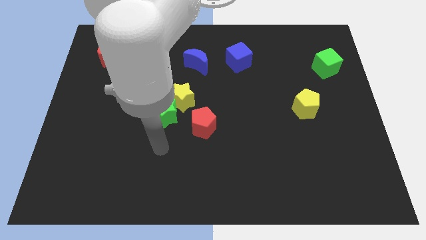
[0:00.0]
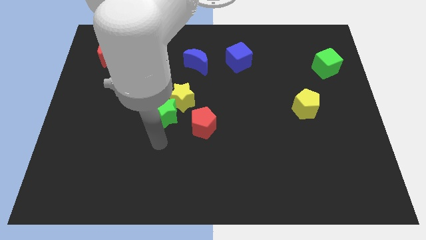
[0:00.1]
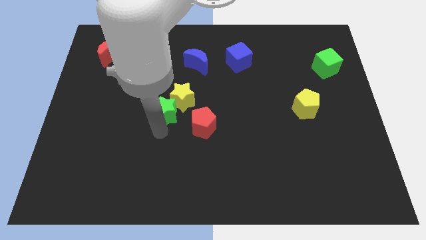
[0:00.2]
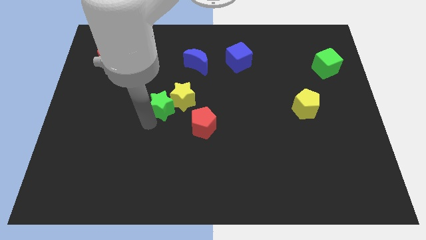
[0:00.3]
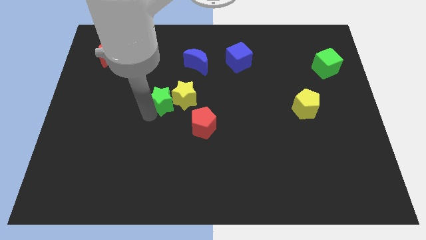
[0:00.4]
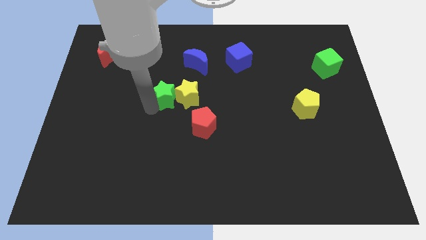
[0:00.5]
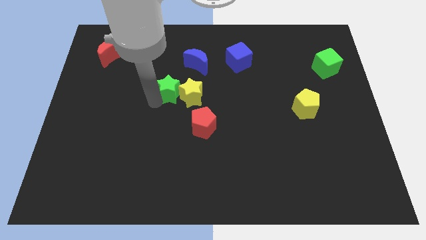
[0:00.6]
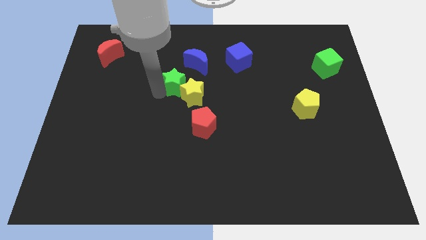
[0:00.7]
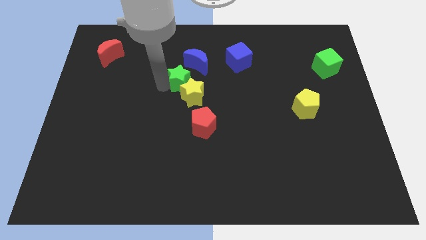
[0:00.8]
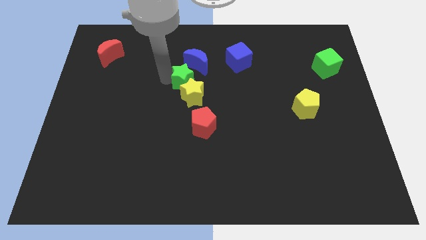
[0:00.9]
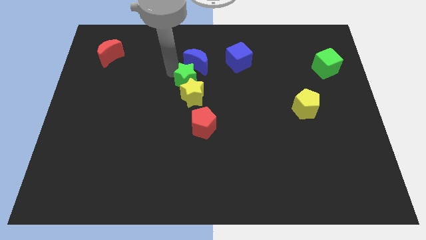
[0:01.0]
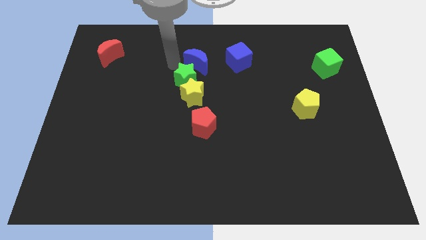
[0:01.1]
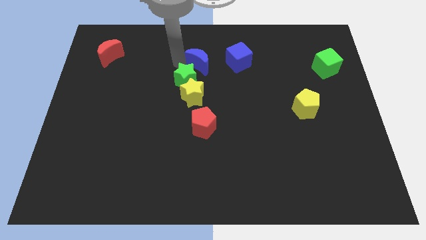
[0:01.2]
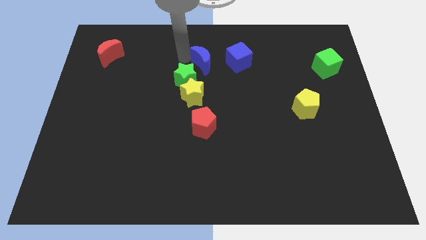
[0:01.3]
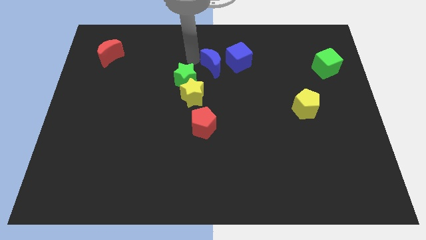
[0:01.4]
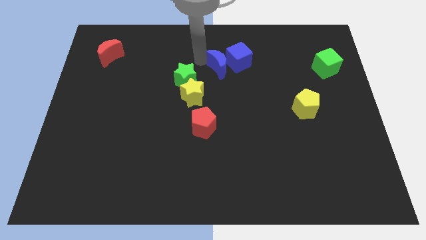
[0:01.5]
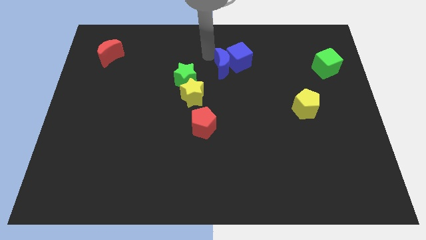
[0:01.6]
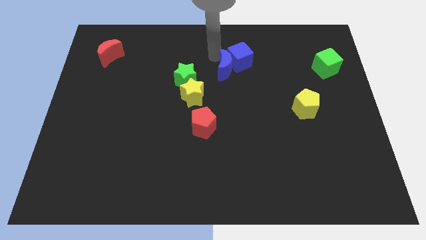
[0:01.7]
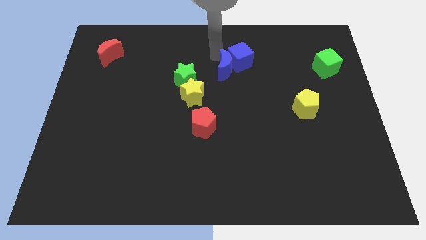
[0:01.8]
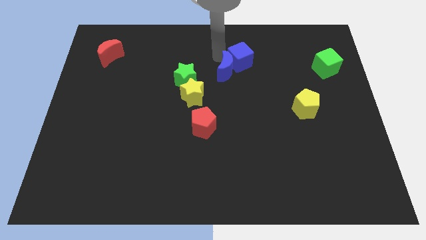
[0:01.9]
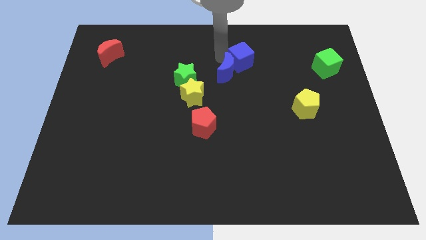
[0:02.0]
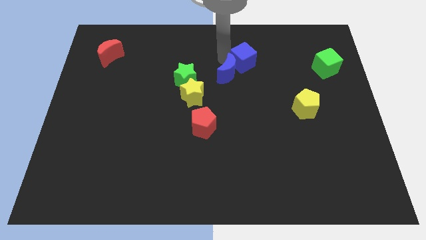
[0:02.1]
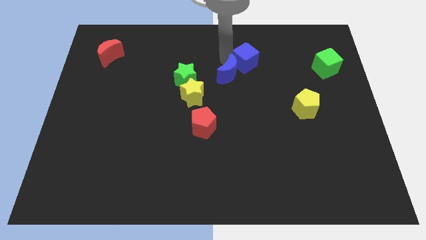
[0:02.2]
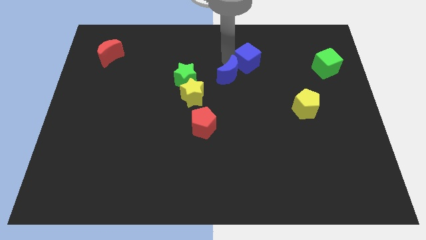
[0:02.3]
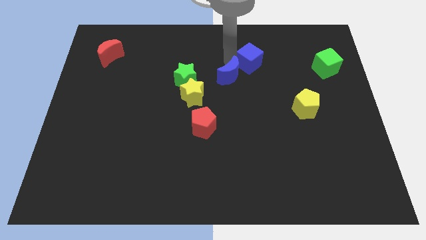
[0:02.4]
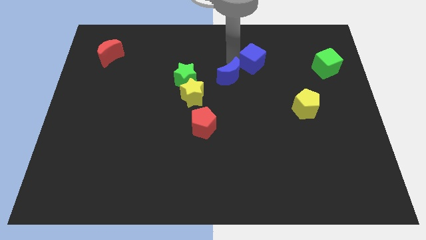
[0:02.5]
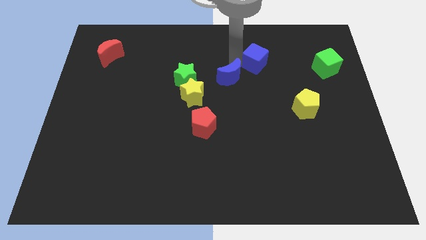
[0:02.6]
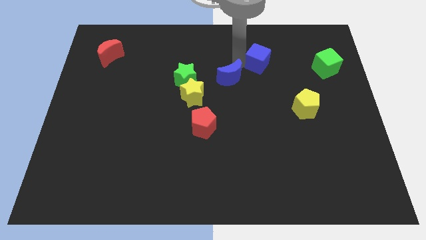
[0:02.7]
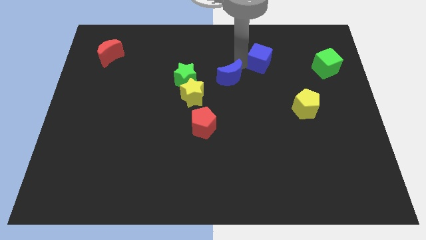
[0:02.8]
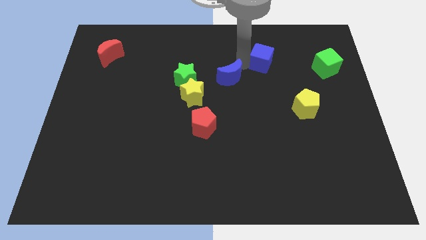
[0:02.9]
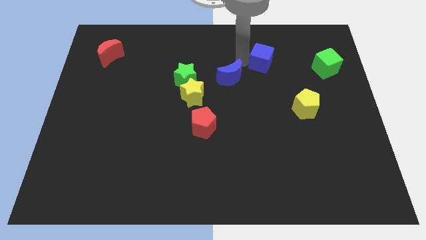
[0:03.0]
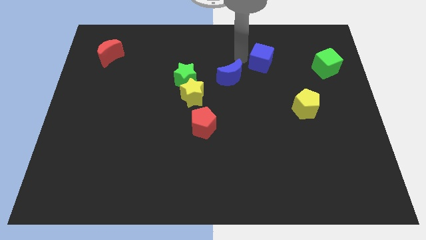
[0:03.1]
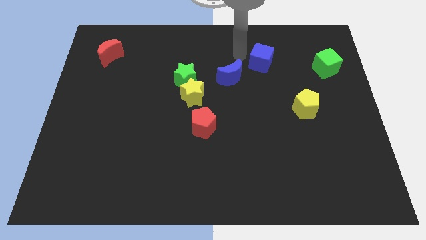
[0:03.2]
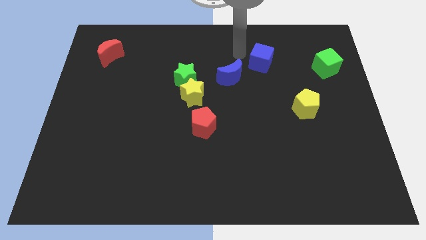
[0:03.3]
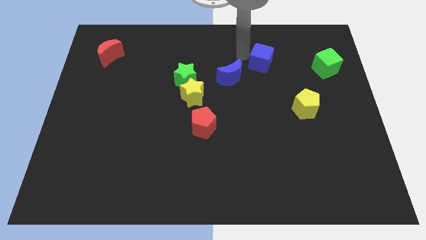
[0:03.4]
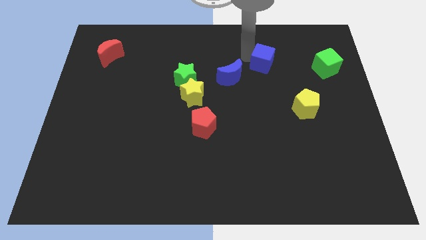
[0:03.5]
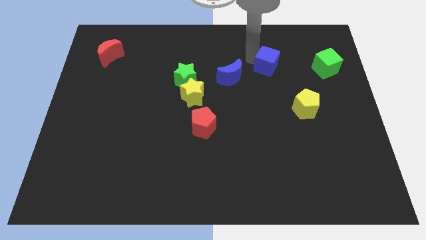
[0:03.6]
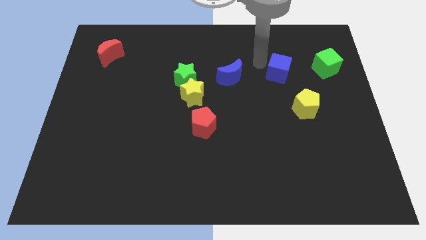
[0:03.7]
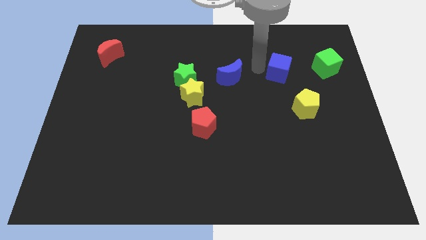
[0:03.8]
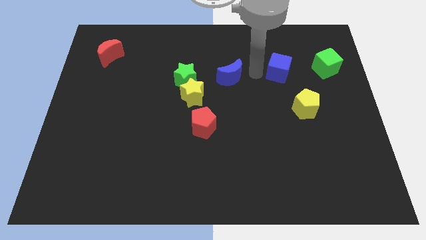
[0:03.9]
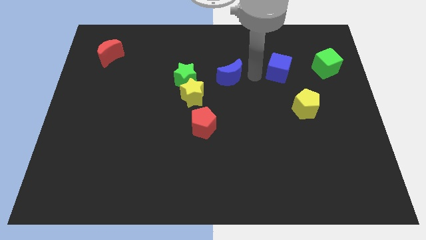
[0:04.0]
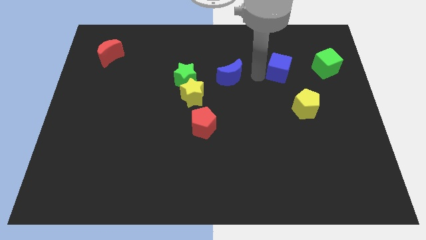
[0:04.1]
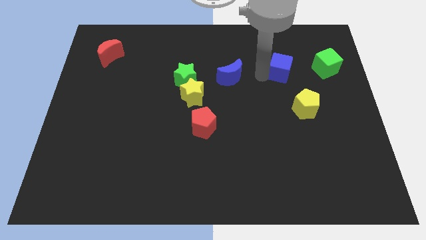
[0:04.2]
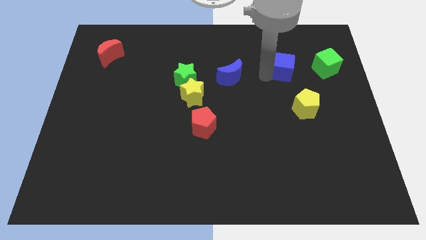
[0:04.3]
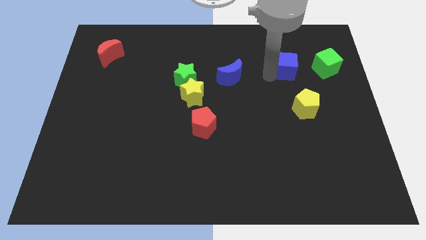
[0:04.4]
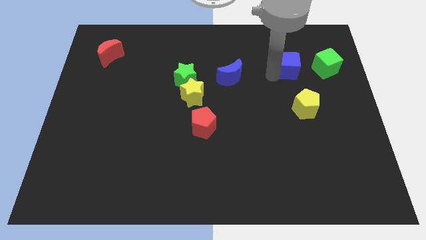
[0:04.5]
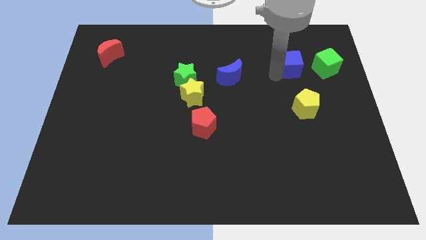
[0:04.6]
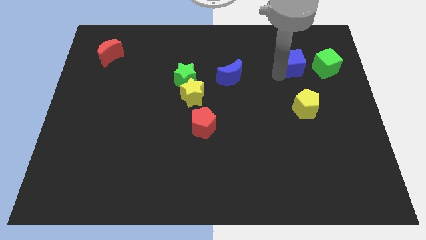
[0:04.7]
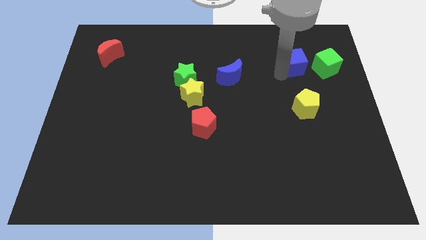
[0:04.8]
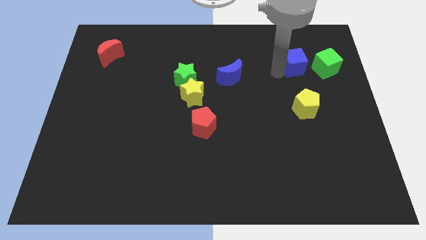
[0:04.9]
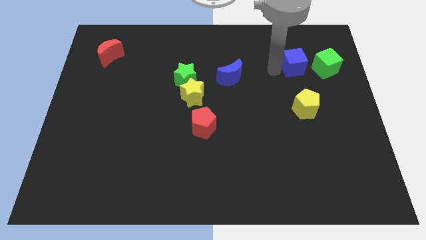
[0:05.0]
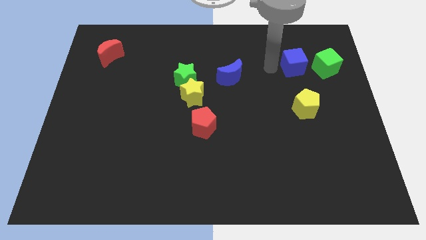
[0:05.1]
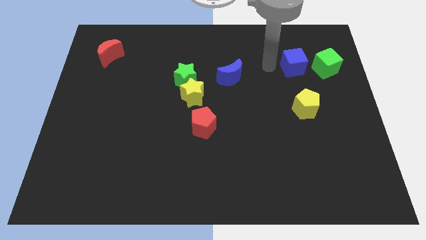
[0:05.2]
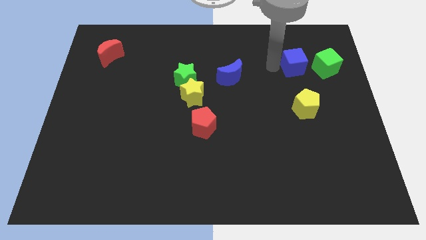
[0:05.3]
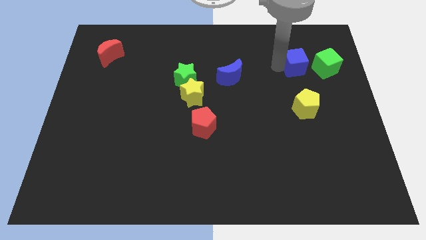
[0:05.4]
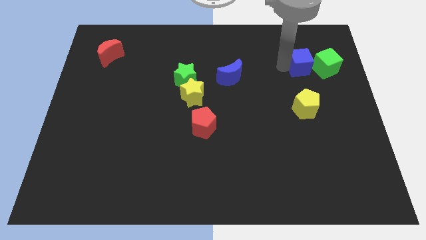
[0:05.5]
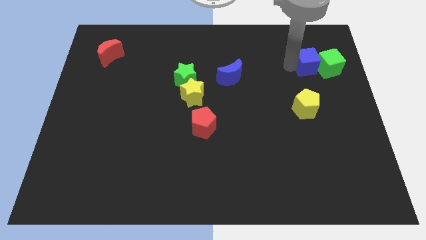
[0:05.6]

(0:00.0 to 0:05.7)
slide the blue cube to the green cube

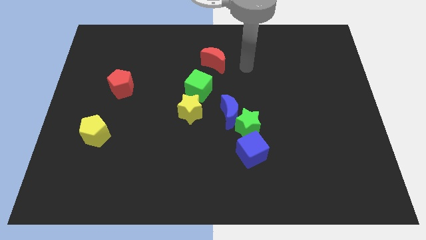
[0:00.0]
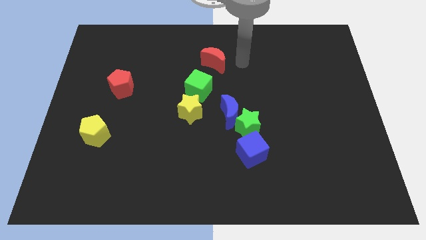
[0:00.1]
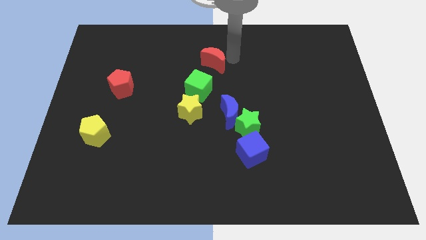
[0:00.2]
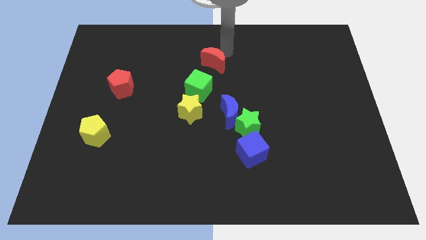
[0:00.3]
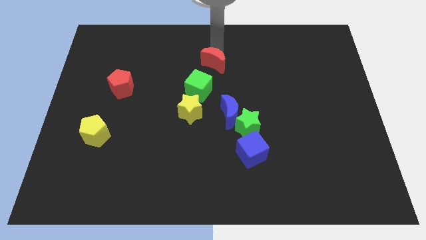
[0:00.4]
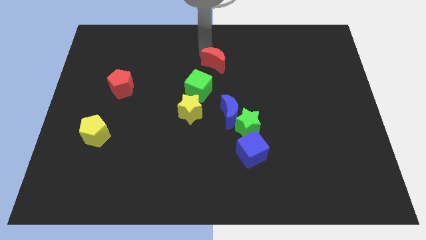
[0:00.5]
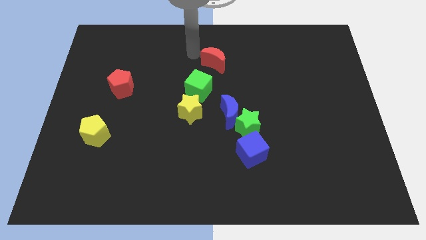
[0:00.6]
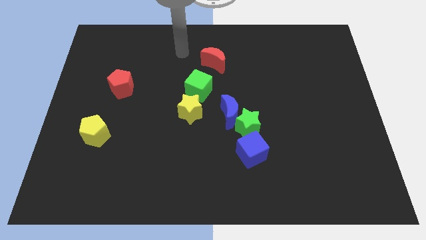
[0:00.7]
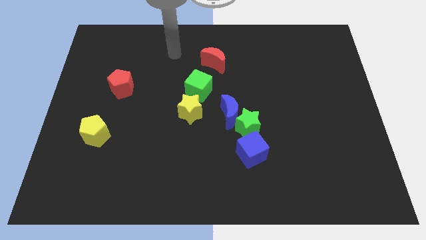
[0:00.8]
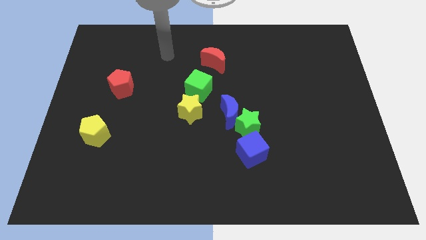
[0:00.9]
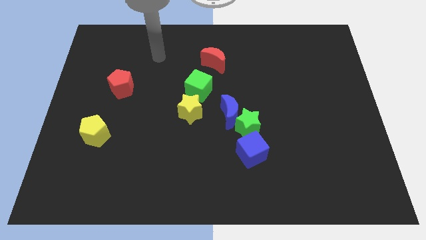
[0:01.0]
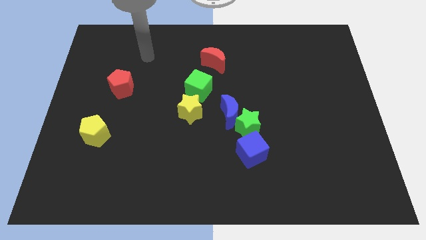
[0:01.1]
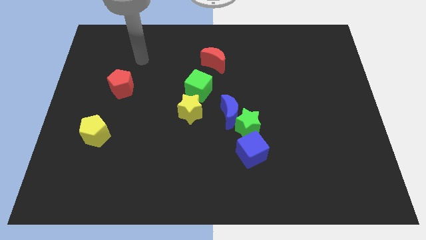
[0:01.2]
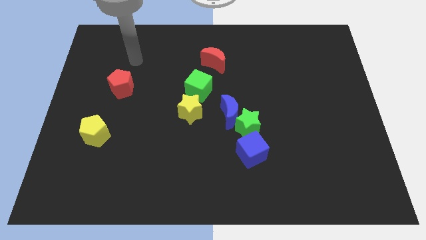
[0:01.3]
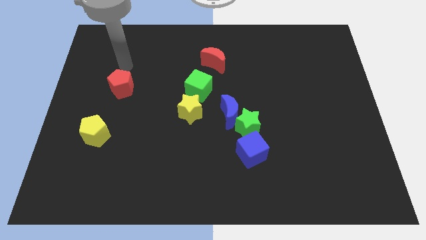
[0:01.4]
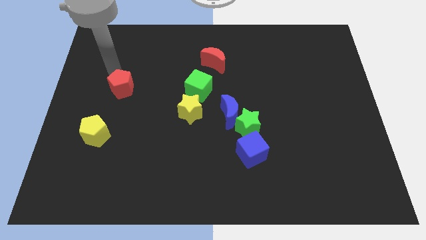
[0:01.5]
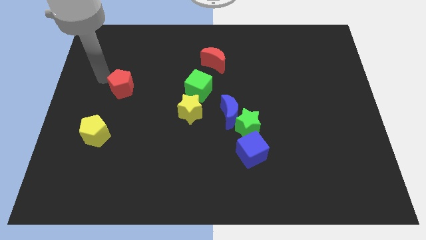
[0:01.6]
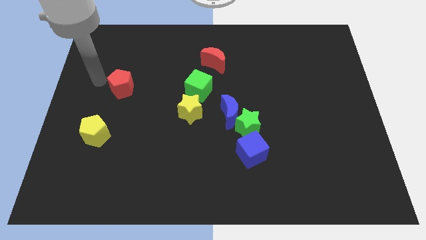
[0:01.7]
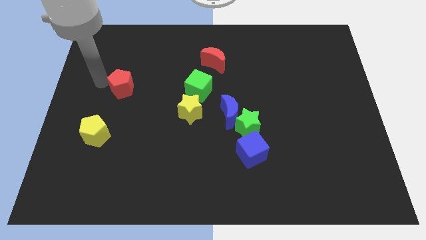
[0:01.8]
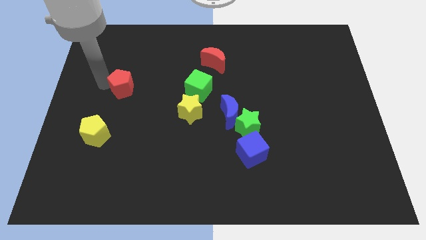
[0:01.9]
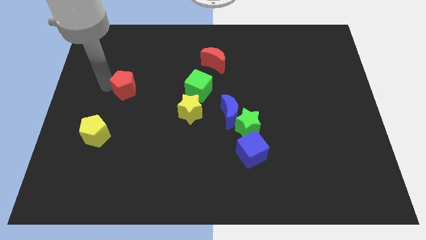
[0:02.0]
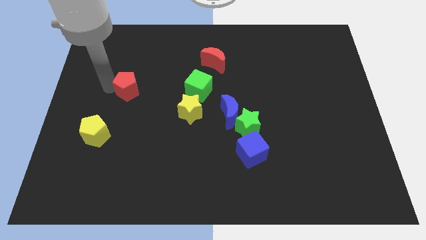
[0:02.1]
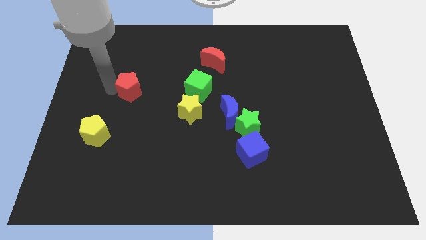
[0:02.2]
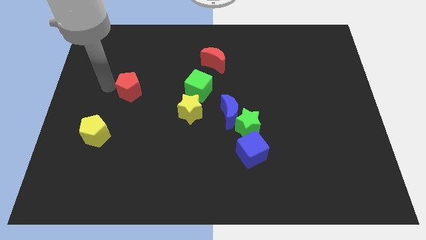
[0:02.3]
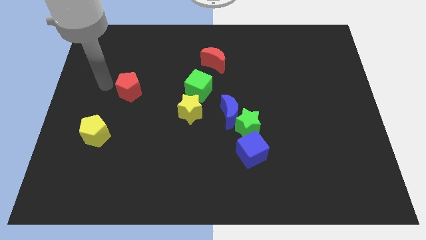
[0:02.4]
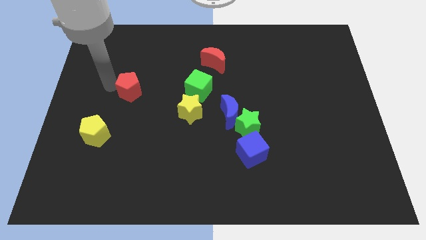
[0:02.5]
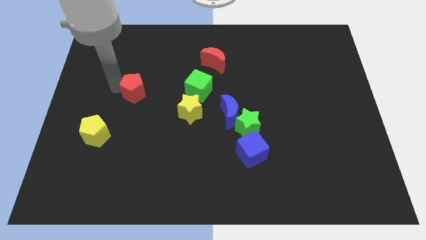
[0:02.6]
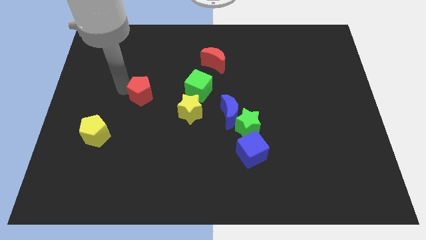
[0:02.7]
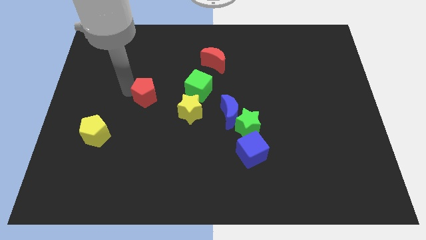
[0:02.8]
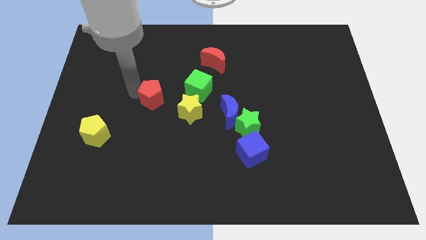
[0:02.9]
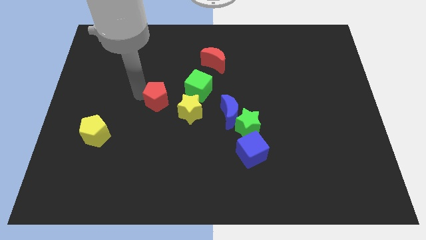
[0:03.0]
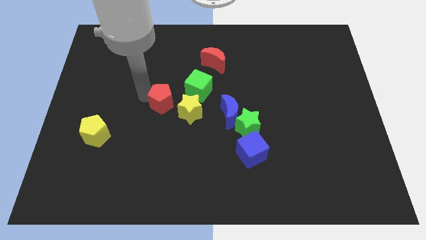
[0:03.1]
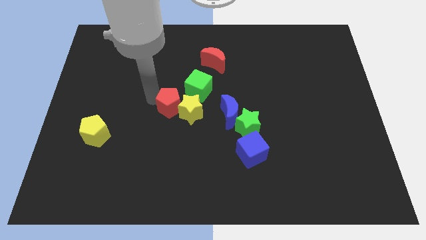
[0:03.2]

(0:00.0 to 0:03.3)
put the red pentagon to the yellow star
